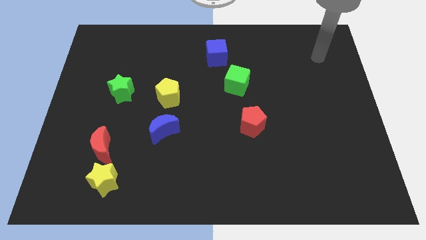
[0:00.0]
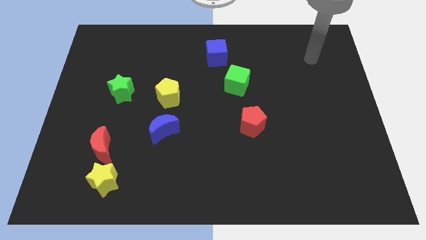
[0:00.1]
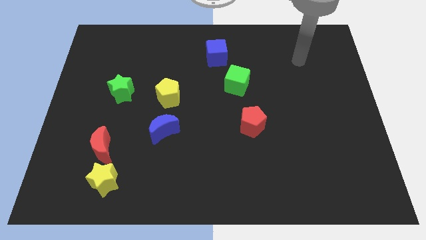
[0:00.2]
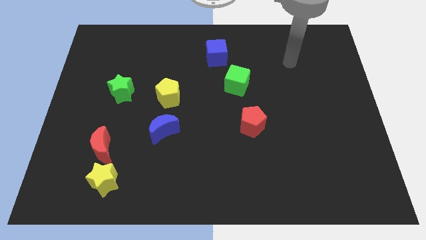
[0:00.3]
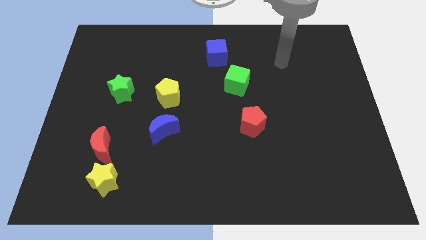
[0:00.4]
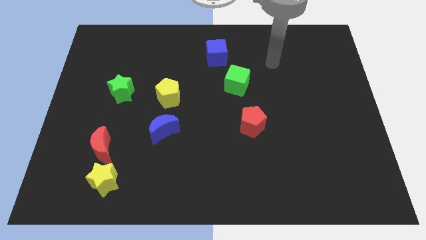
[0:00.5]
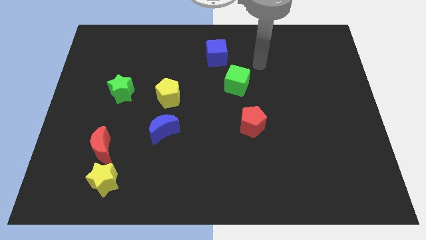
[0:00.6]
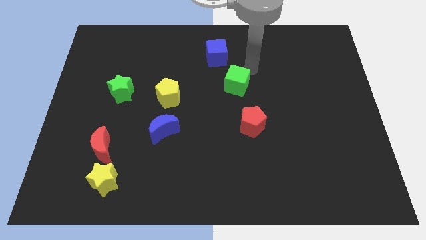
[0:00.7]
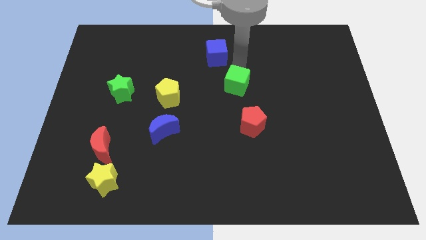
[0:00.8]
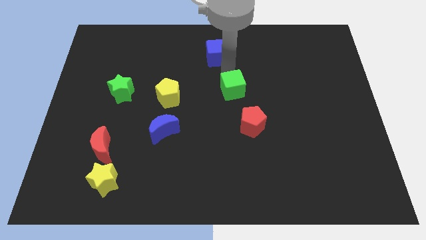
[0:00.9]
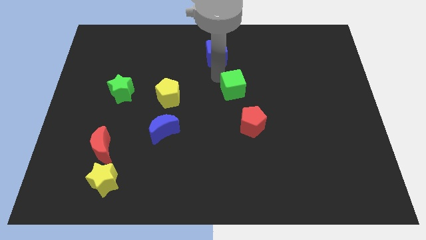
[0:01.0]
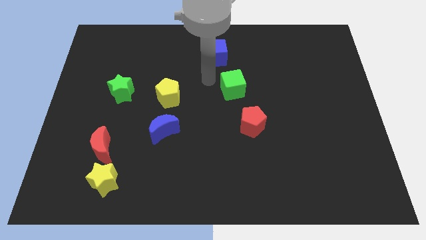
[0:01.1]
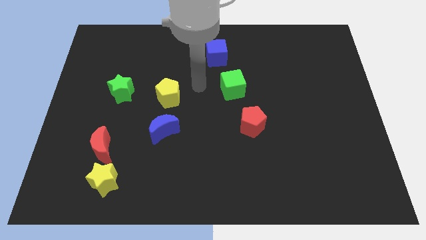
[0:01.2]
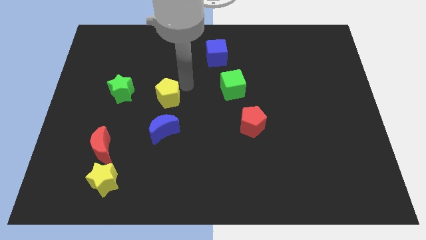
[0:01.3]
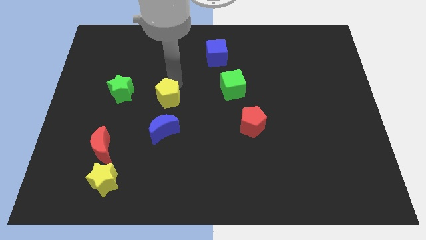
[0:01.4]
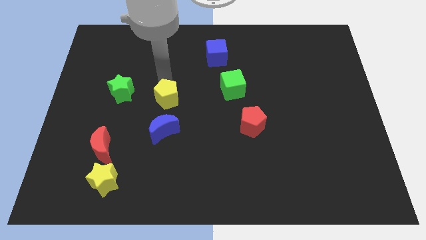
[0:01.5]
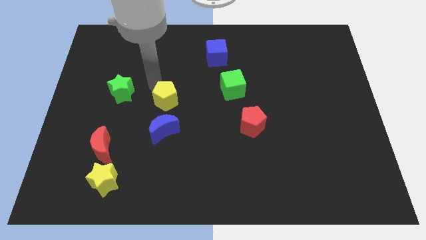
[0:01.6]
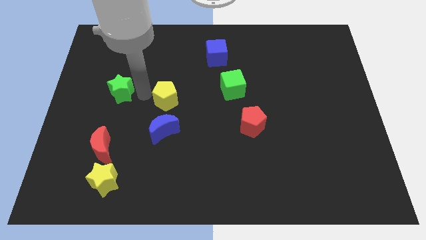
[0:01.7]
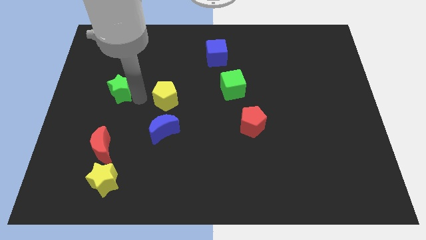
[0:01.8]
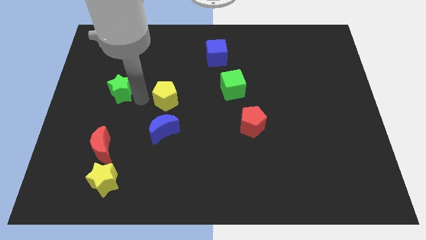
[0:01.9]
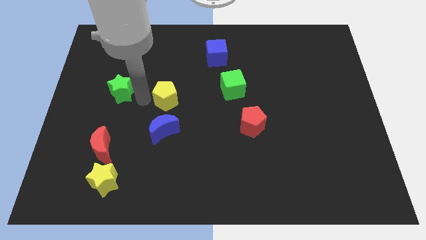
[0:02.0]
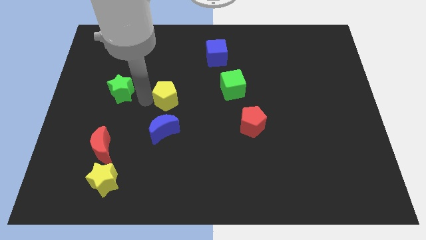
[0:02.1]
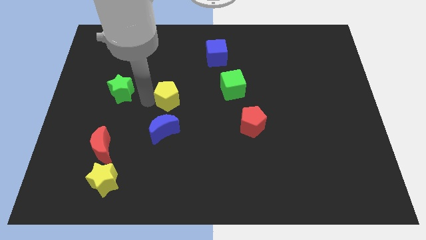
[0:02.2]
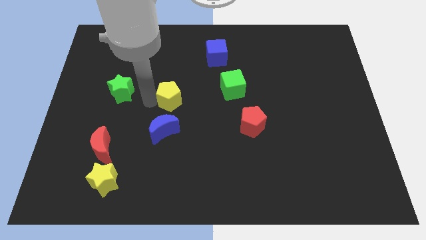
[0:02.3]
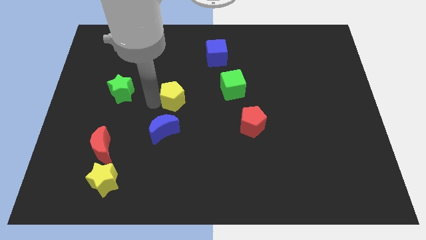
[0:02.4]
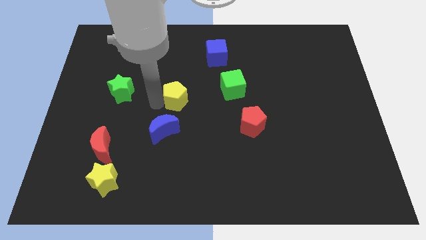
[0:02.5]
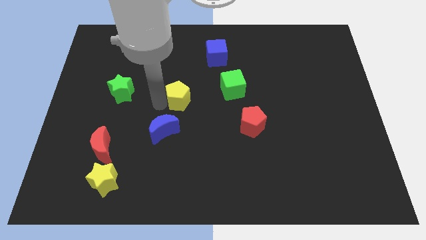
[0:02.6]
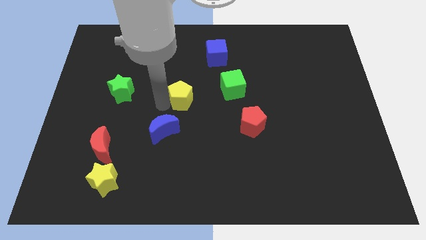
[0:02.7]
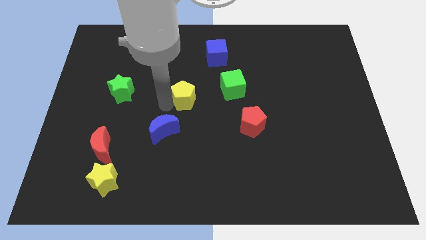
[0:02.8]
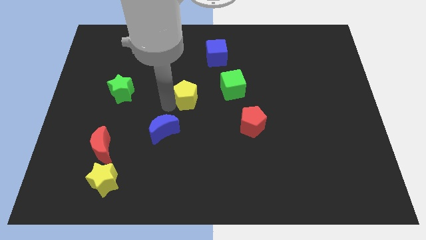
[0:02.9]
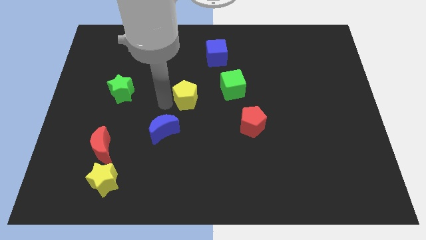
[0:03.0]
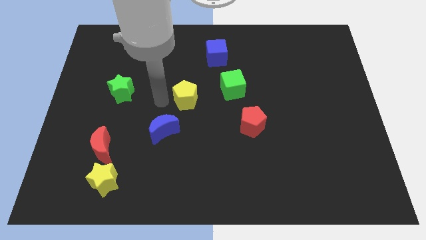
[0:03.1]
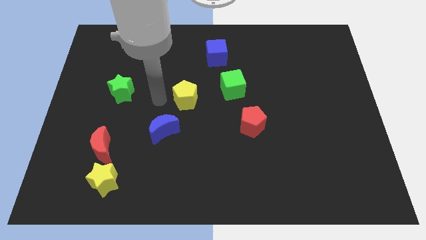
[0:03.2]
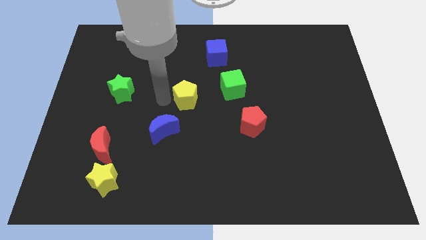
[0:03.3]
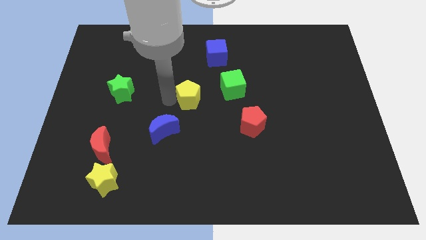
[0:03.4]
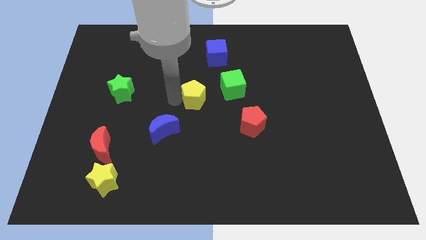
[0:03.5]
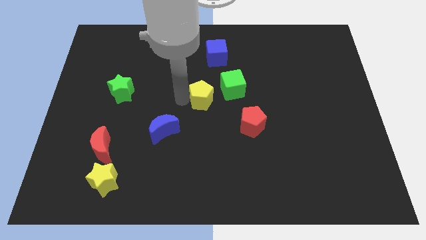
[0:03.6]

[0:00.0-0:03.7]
push the yellow pentagon right a little bit

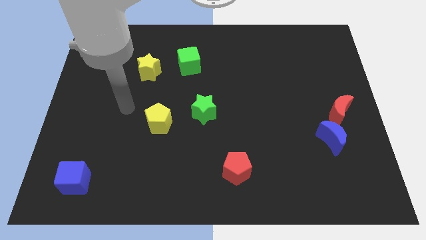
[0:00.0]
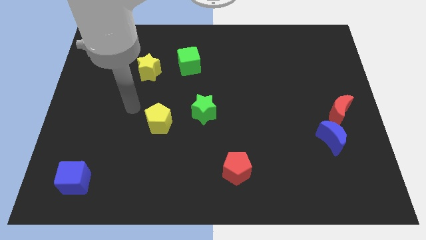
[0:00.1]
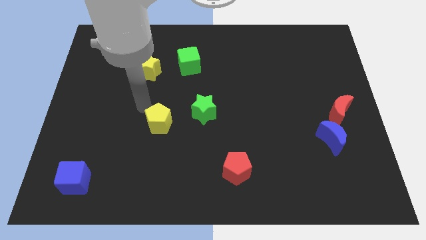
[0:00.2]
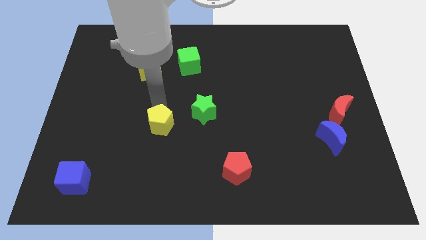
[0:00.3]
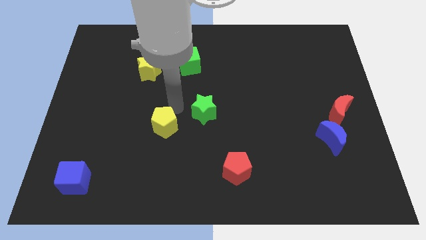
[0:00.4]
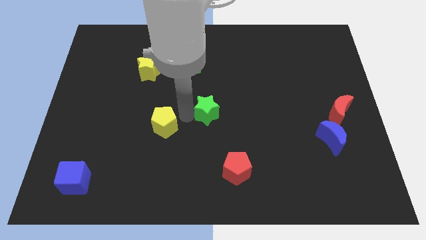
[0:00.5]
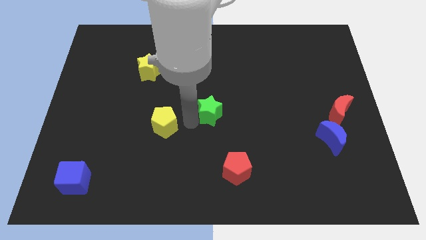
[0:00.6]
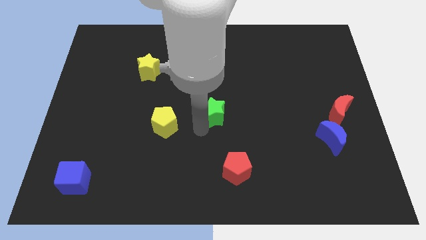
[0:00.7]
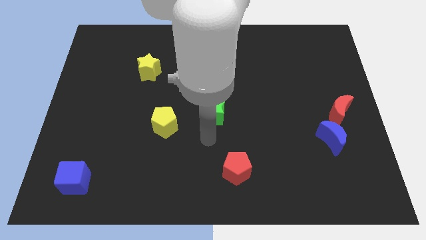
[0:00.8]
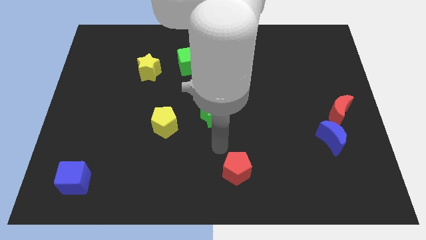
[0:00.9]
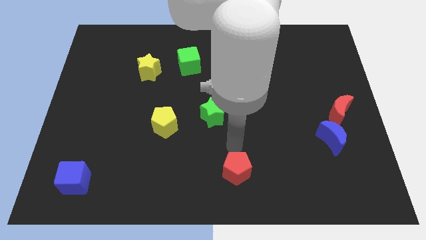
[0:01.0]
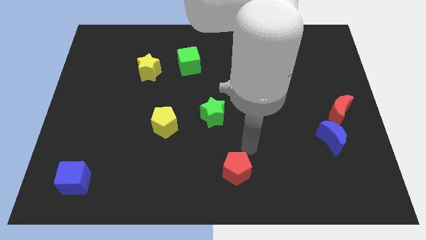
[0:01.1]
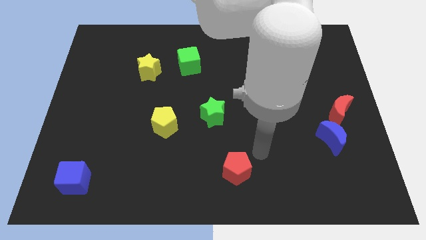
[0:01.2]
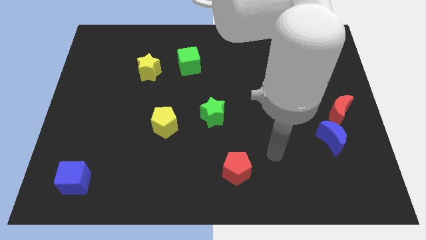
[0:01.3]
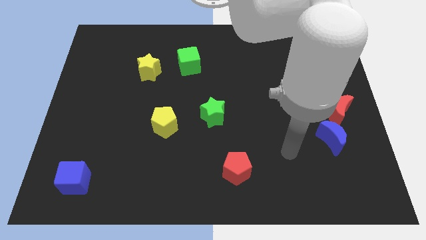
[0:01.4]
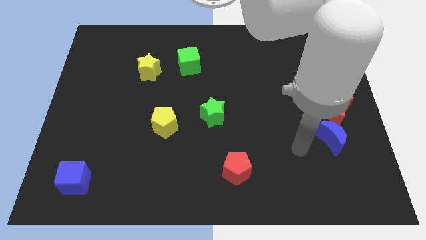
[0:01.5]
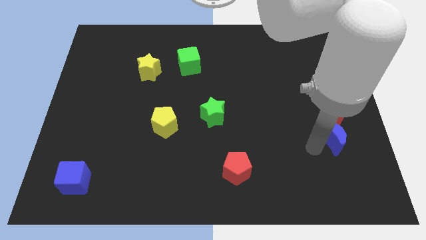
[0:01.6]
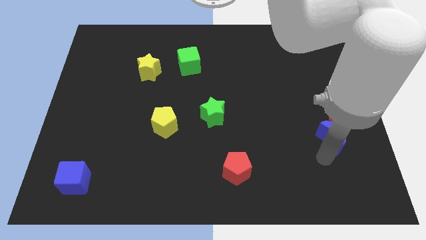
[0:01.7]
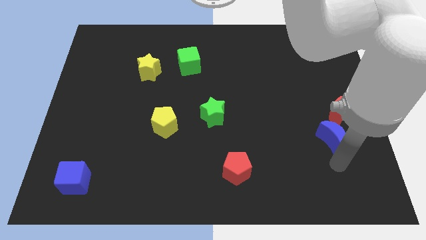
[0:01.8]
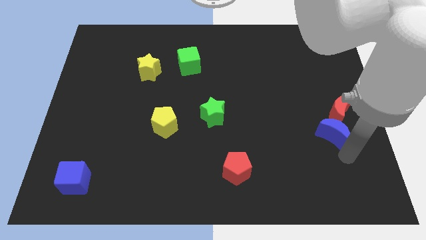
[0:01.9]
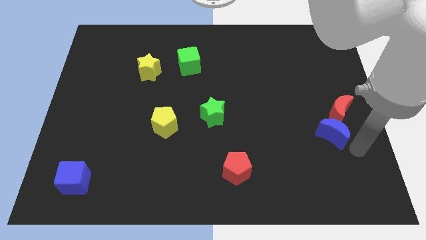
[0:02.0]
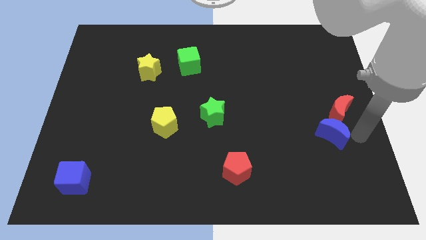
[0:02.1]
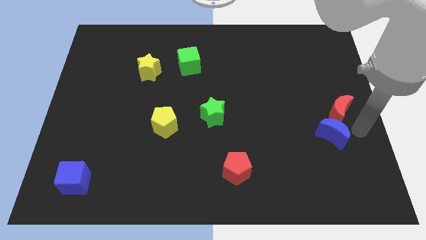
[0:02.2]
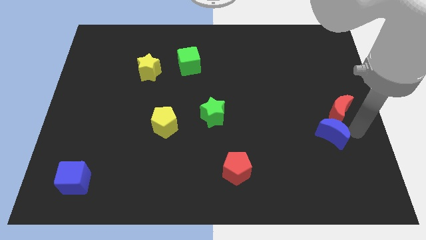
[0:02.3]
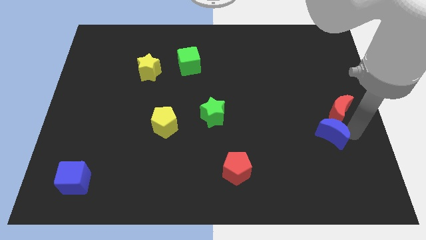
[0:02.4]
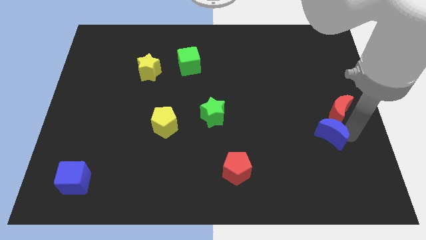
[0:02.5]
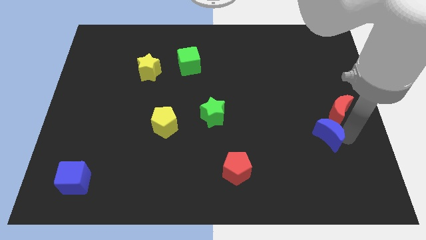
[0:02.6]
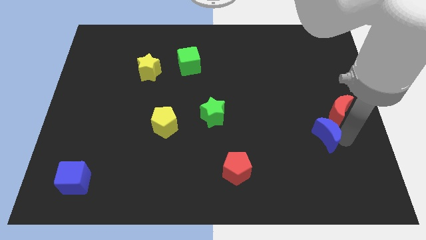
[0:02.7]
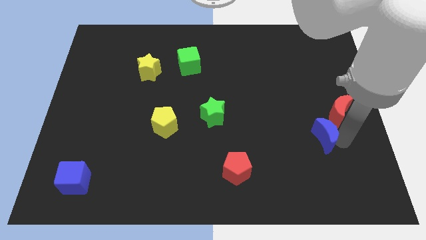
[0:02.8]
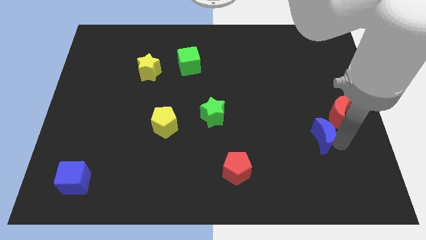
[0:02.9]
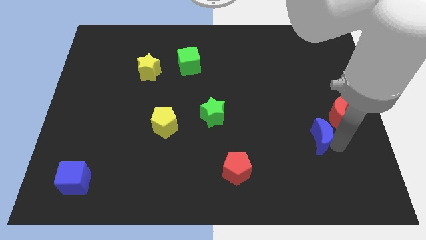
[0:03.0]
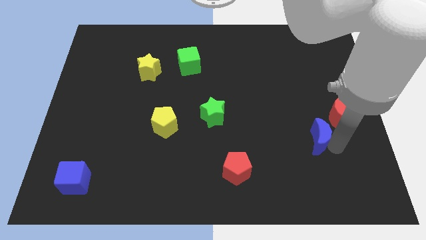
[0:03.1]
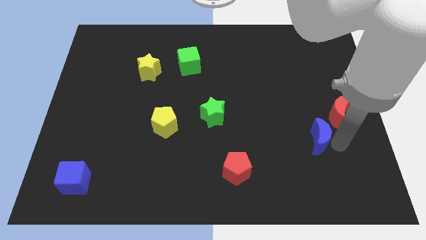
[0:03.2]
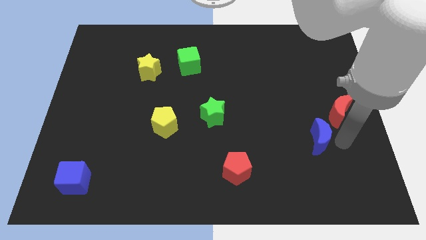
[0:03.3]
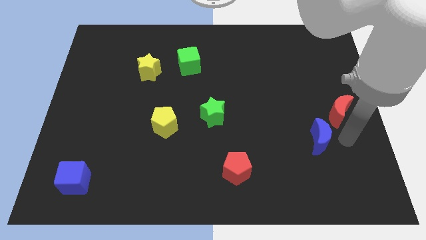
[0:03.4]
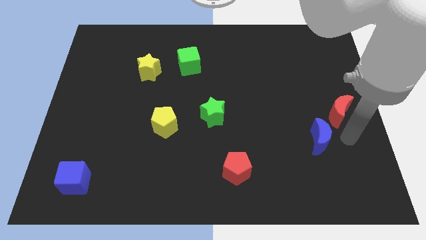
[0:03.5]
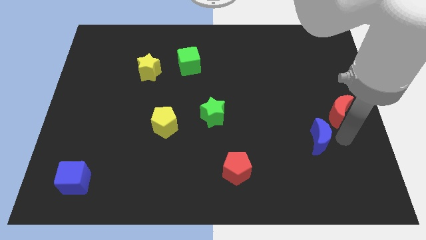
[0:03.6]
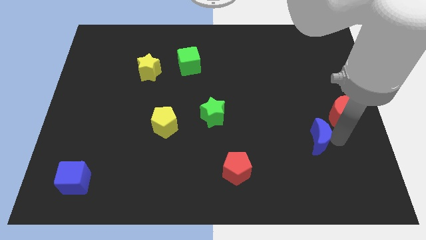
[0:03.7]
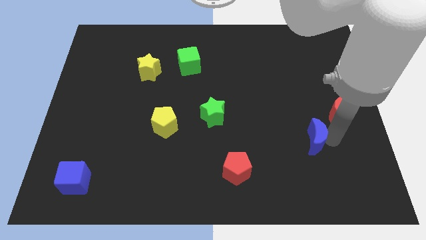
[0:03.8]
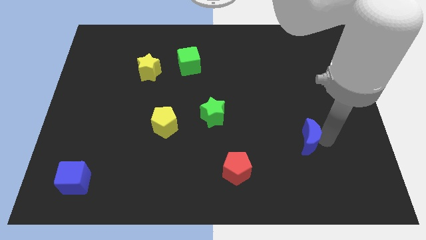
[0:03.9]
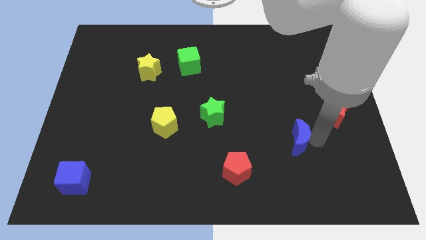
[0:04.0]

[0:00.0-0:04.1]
slide the blue moon a little to the left
